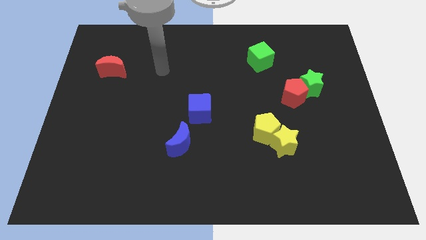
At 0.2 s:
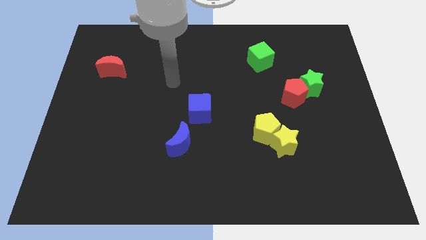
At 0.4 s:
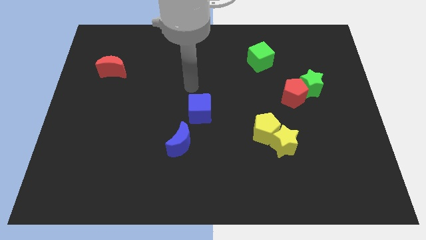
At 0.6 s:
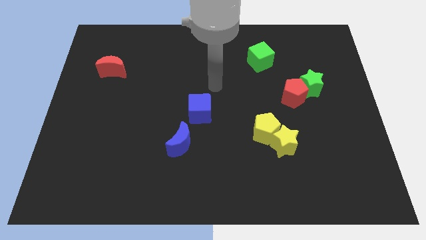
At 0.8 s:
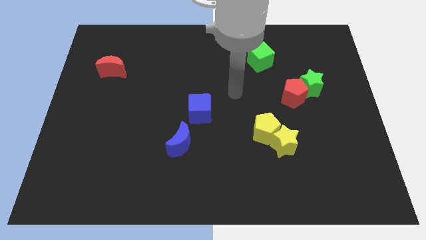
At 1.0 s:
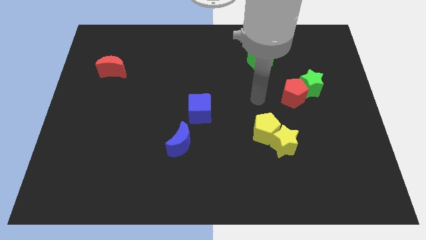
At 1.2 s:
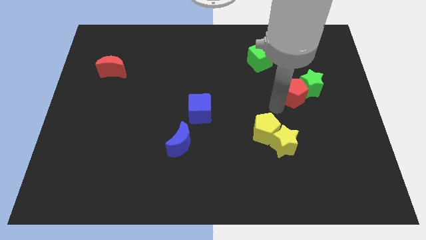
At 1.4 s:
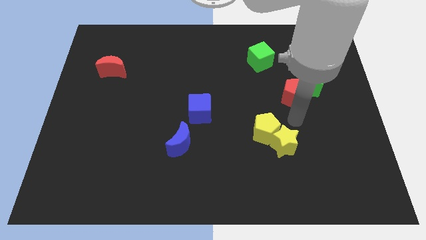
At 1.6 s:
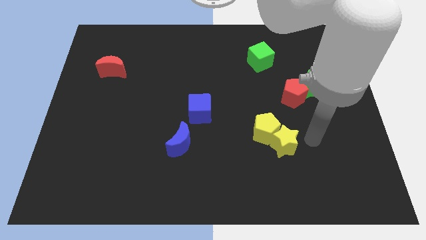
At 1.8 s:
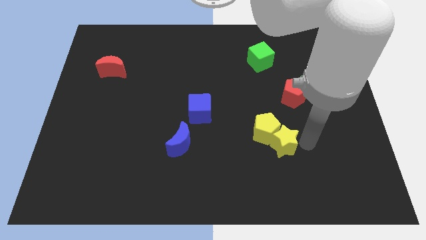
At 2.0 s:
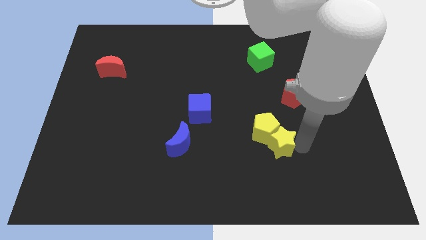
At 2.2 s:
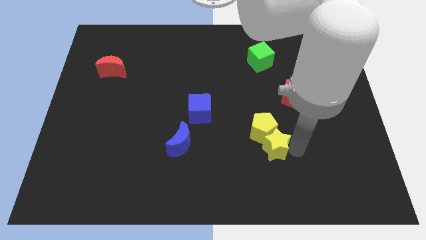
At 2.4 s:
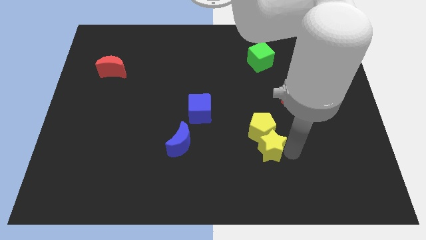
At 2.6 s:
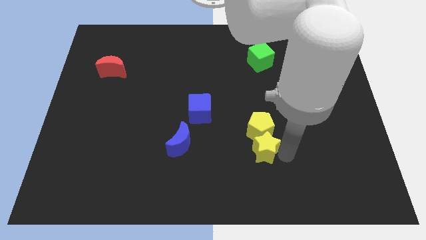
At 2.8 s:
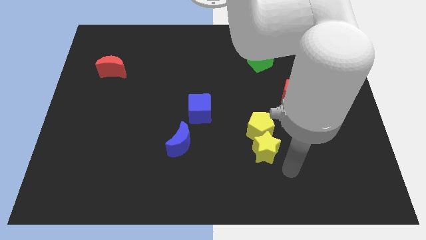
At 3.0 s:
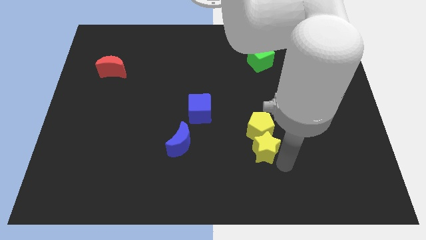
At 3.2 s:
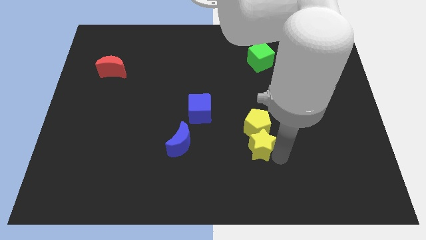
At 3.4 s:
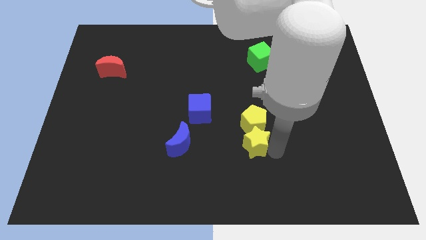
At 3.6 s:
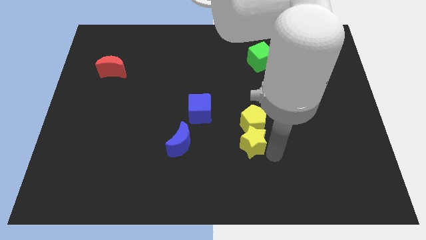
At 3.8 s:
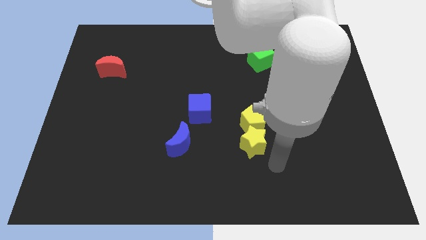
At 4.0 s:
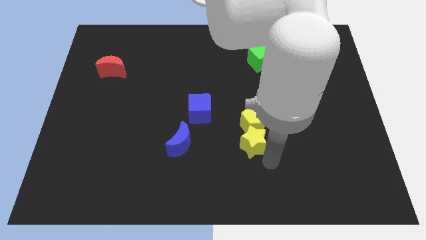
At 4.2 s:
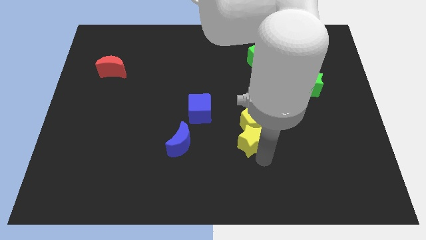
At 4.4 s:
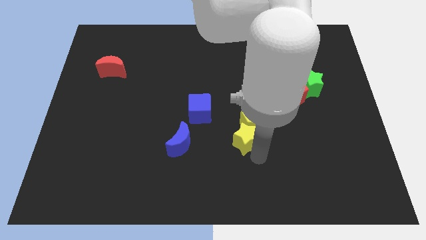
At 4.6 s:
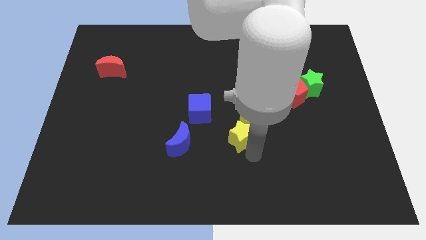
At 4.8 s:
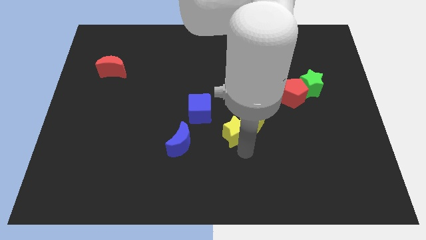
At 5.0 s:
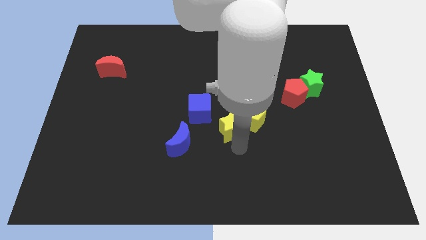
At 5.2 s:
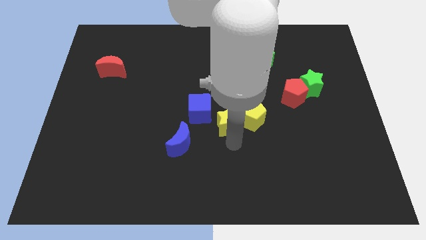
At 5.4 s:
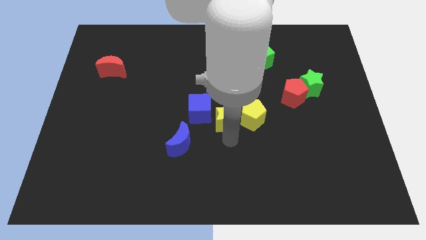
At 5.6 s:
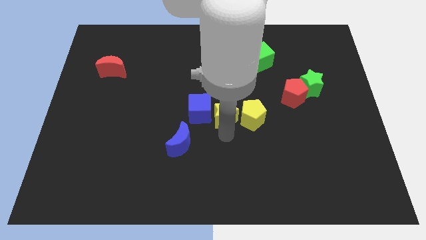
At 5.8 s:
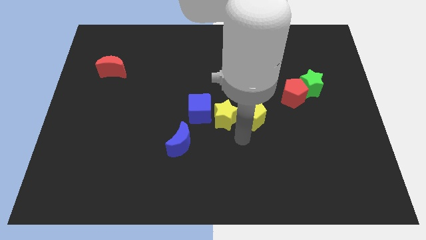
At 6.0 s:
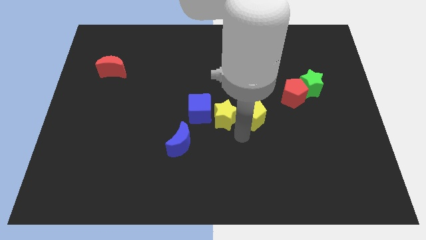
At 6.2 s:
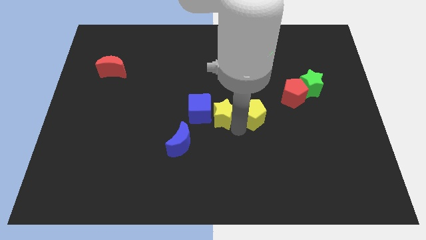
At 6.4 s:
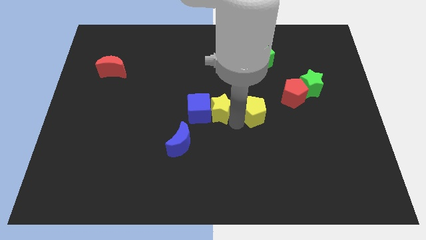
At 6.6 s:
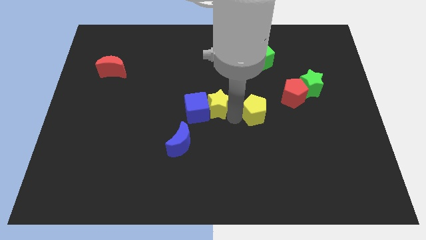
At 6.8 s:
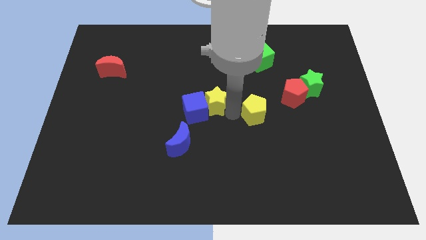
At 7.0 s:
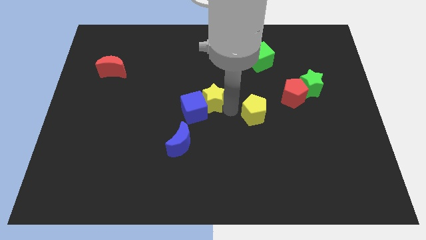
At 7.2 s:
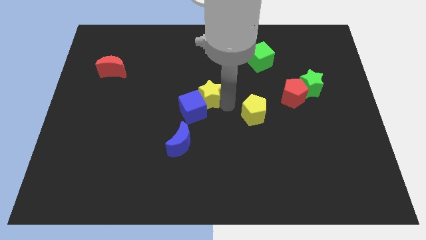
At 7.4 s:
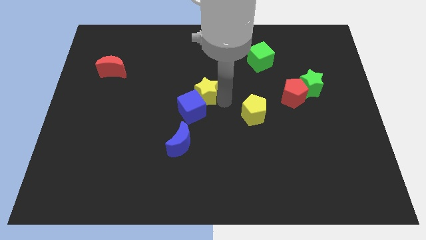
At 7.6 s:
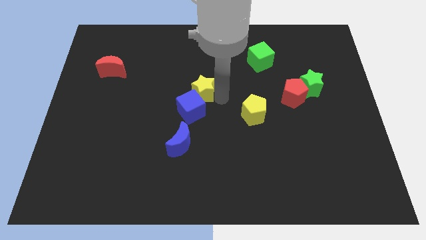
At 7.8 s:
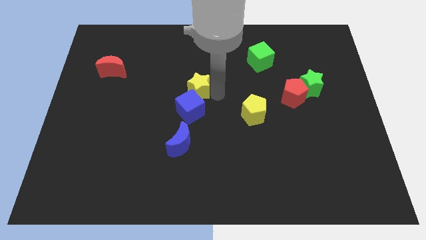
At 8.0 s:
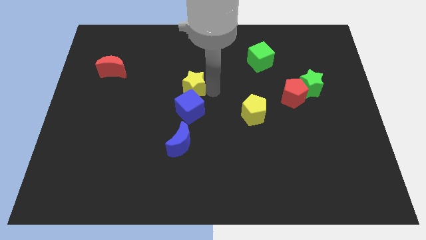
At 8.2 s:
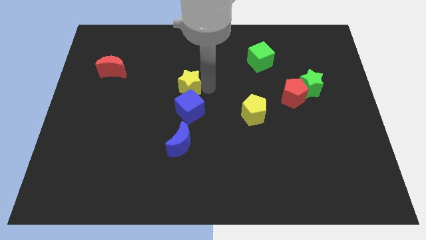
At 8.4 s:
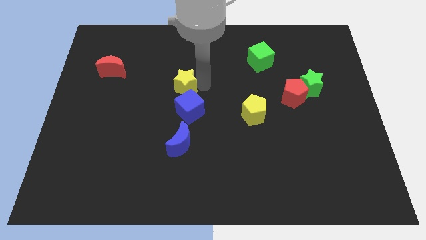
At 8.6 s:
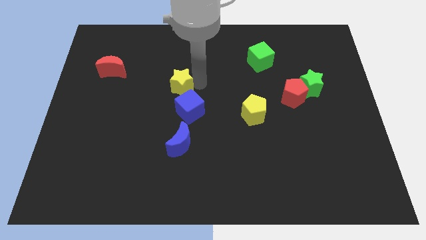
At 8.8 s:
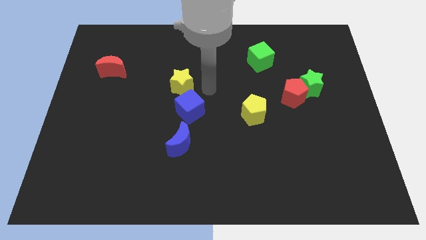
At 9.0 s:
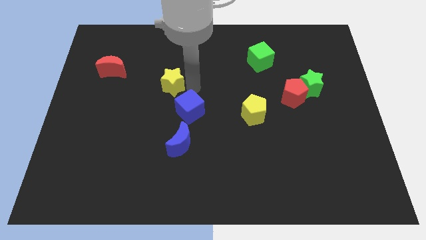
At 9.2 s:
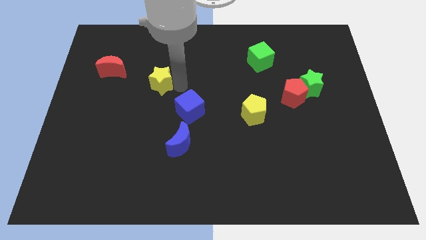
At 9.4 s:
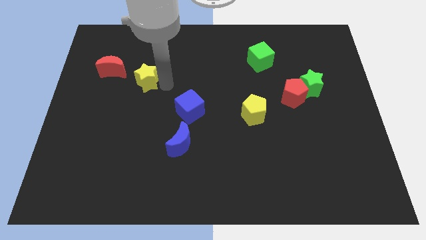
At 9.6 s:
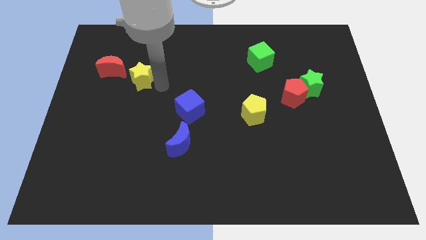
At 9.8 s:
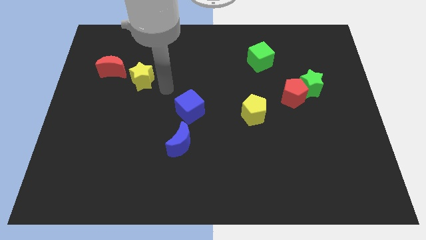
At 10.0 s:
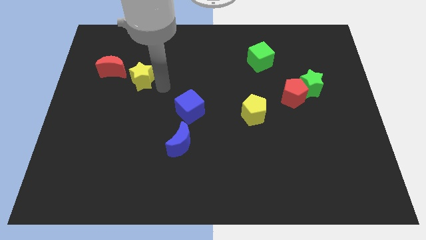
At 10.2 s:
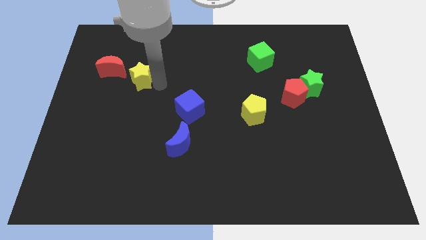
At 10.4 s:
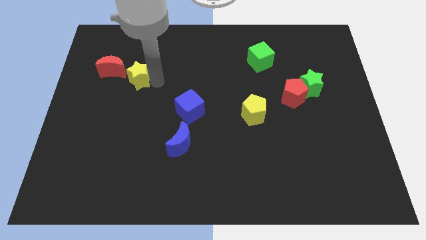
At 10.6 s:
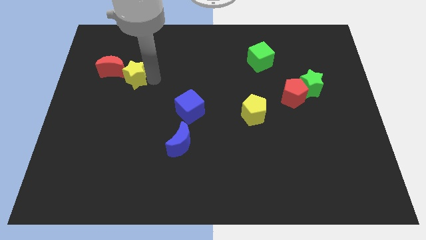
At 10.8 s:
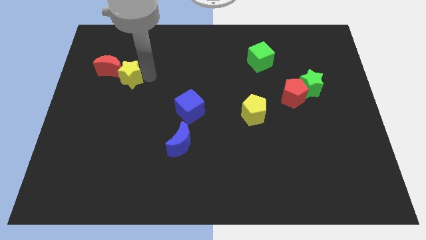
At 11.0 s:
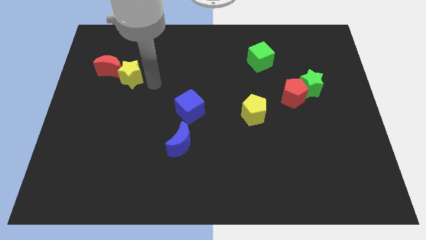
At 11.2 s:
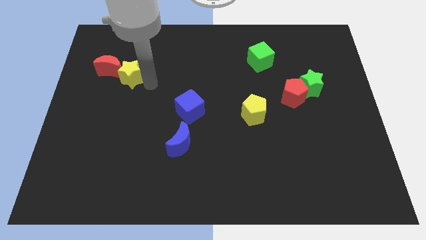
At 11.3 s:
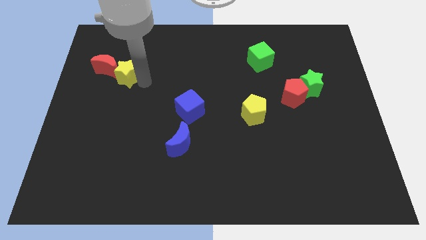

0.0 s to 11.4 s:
put the yellow star to the red moon

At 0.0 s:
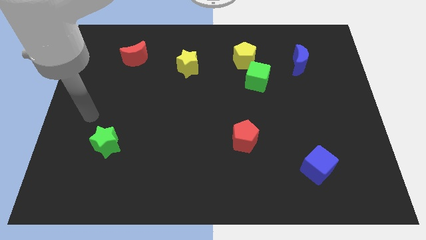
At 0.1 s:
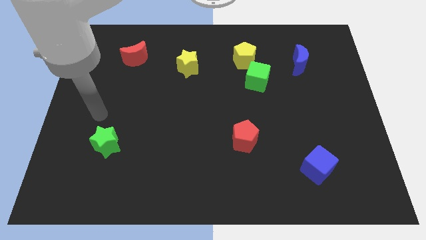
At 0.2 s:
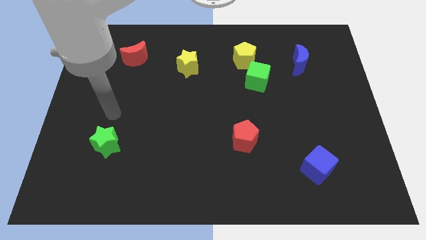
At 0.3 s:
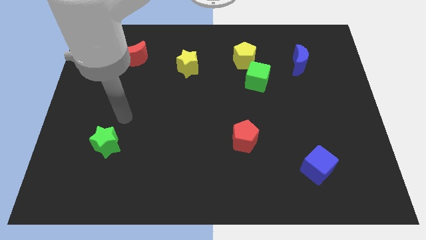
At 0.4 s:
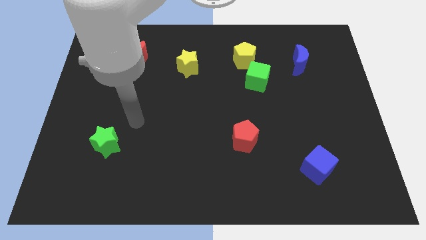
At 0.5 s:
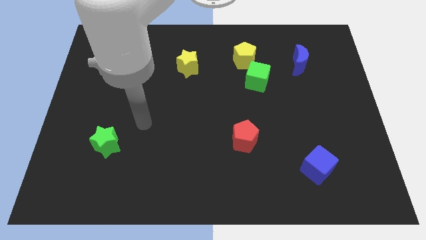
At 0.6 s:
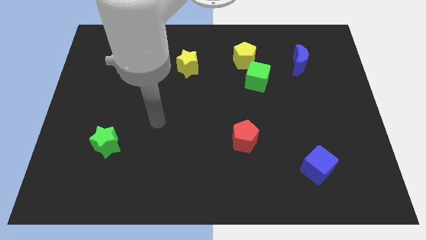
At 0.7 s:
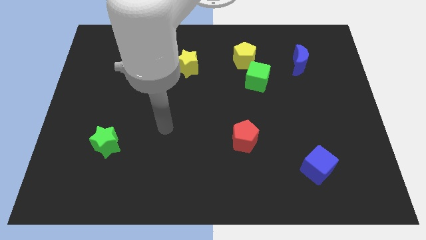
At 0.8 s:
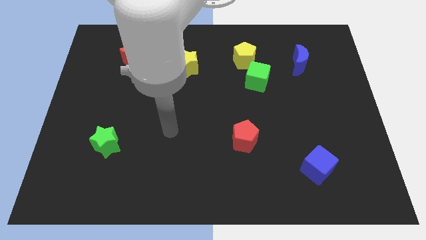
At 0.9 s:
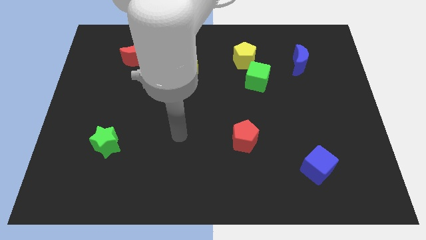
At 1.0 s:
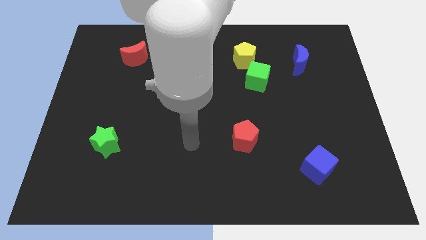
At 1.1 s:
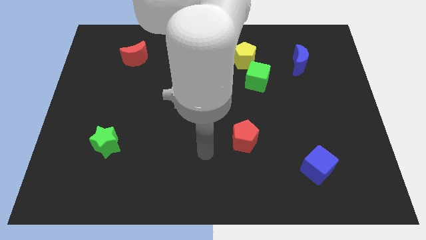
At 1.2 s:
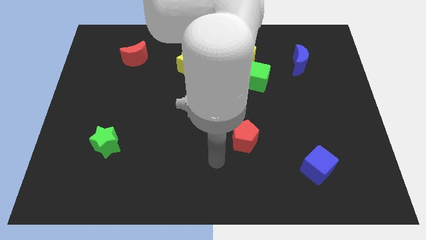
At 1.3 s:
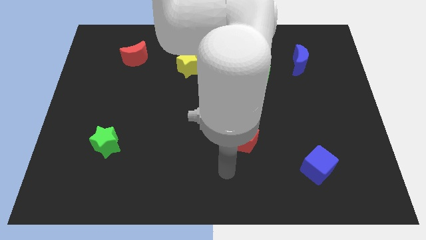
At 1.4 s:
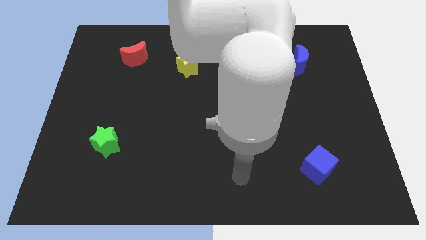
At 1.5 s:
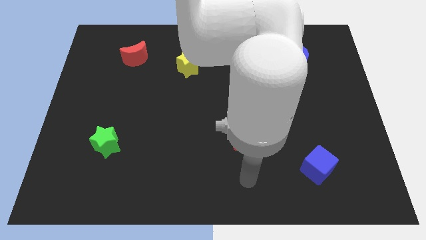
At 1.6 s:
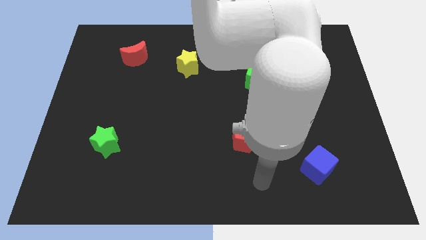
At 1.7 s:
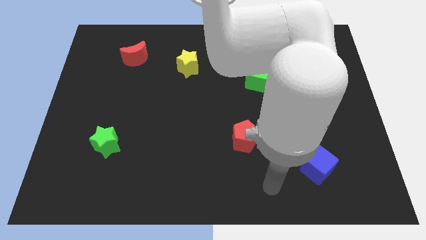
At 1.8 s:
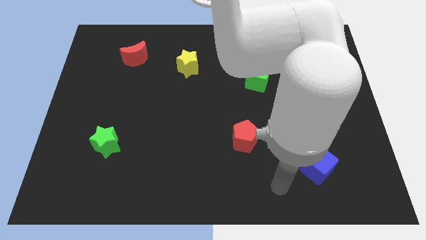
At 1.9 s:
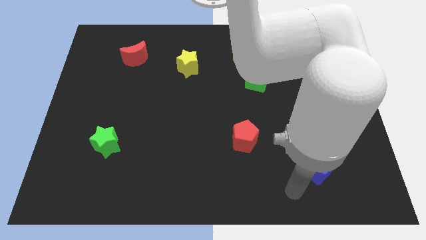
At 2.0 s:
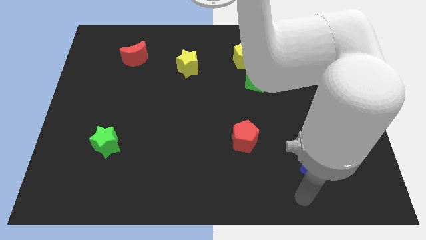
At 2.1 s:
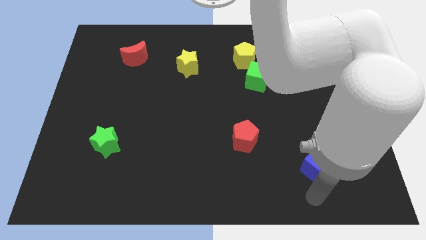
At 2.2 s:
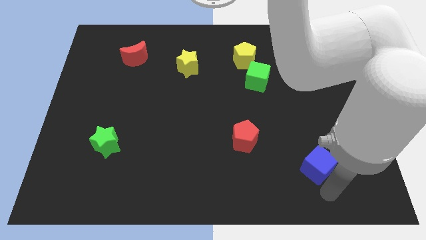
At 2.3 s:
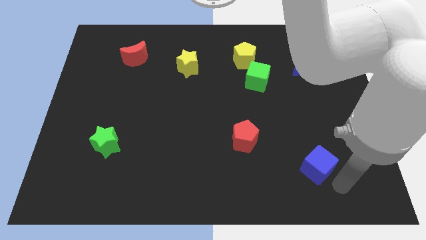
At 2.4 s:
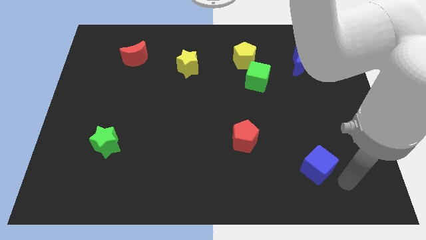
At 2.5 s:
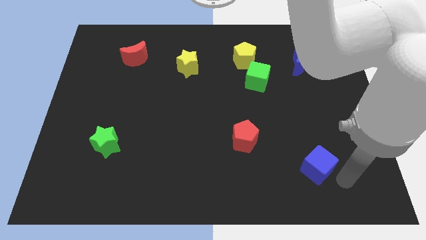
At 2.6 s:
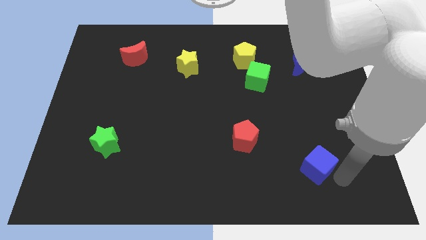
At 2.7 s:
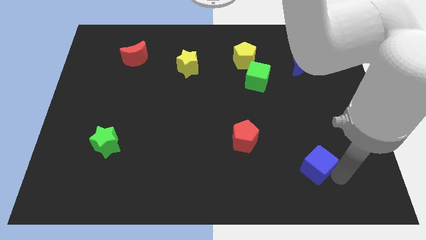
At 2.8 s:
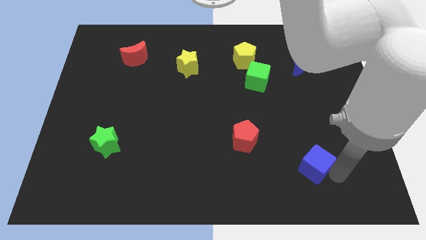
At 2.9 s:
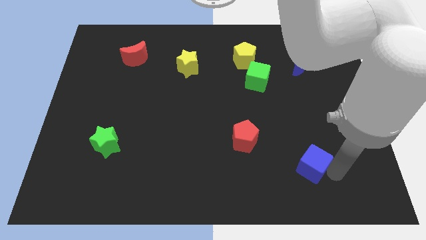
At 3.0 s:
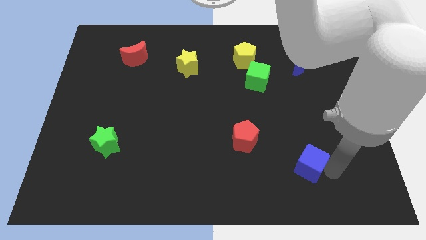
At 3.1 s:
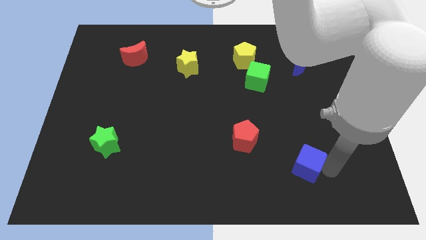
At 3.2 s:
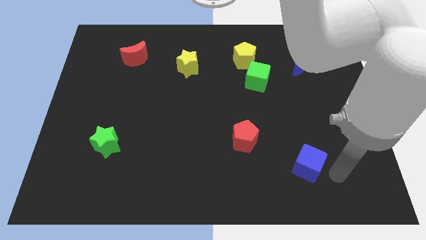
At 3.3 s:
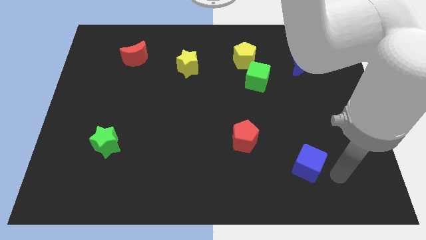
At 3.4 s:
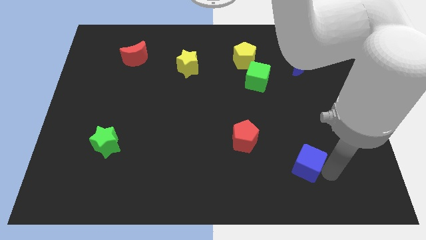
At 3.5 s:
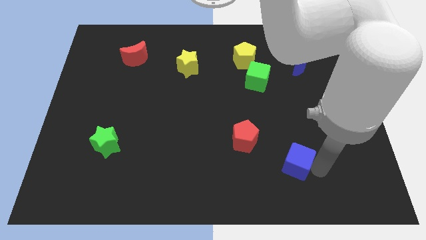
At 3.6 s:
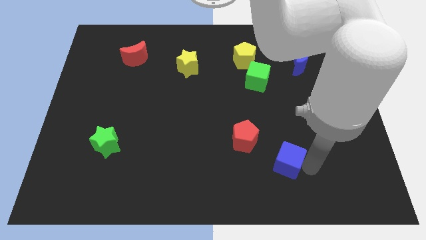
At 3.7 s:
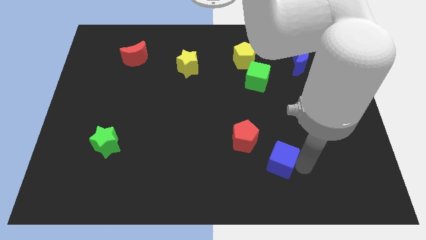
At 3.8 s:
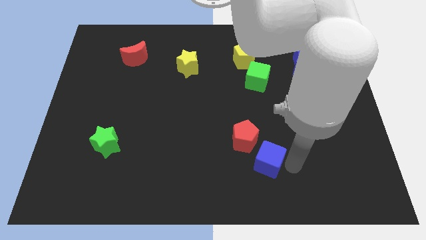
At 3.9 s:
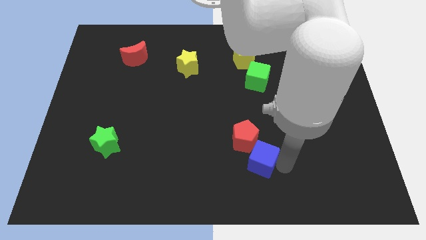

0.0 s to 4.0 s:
move the blue cube to the red pentagon
